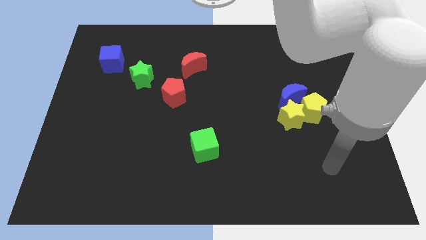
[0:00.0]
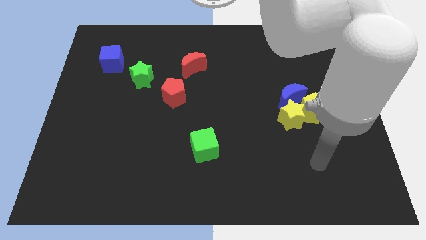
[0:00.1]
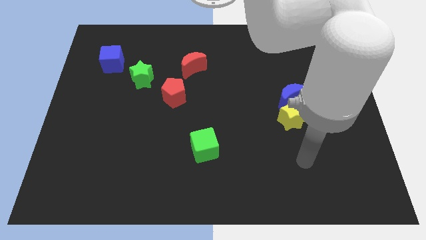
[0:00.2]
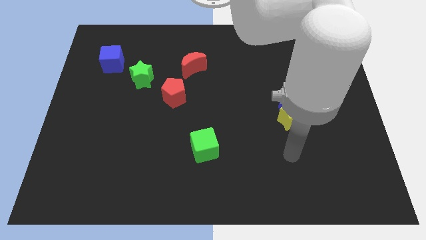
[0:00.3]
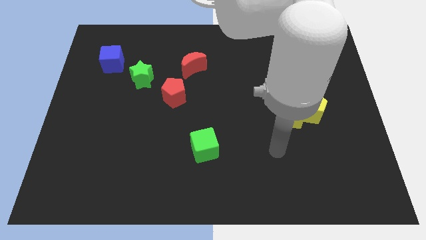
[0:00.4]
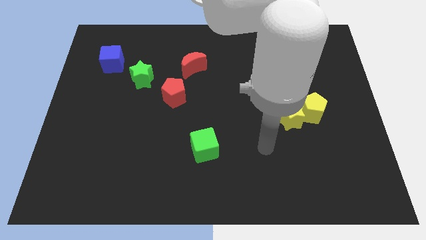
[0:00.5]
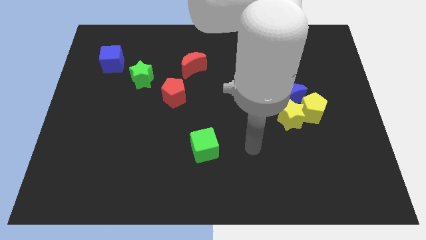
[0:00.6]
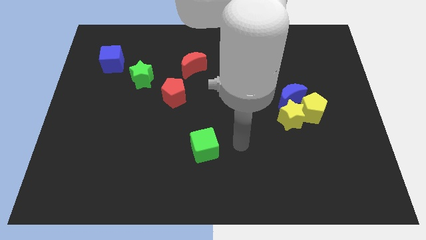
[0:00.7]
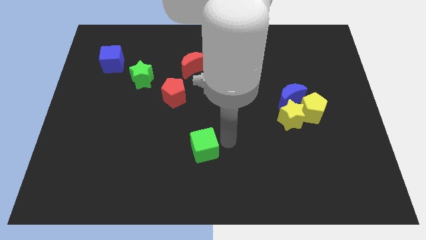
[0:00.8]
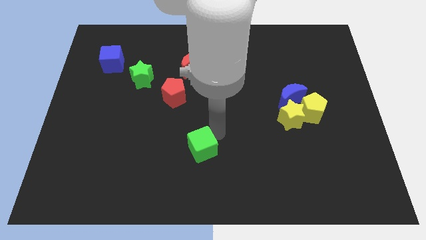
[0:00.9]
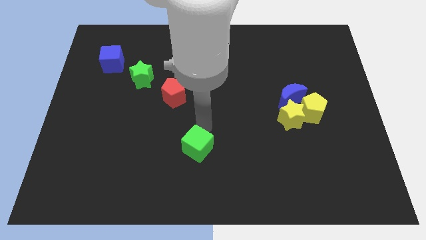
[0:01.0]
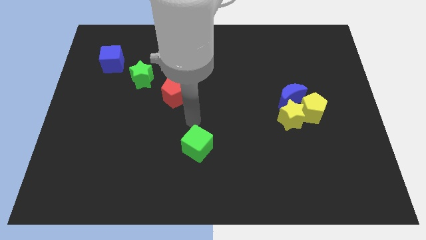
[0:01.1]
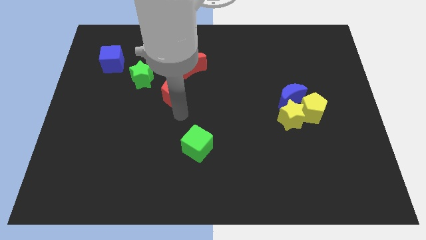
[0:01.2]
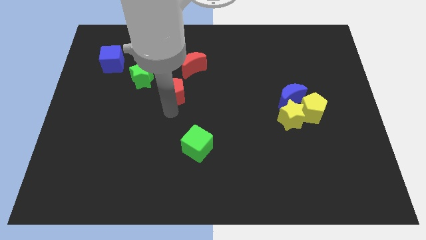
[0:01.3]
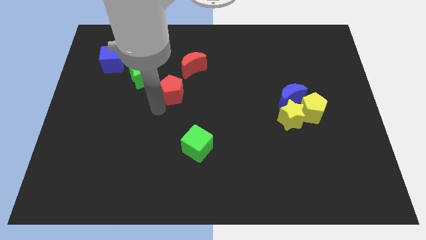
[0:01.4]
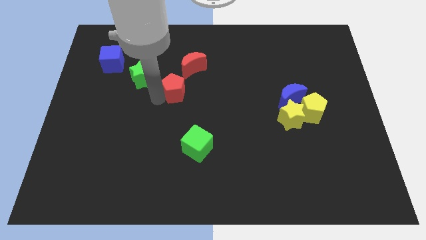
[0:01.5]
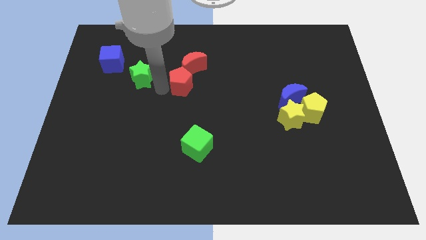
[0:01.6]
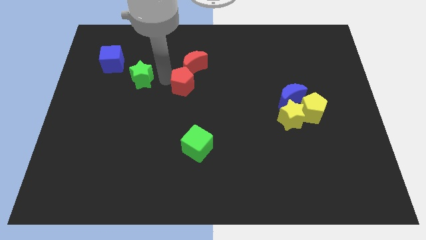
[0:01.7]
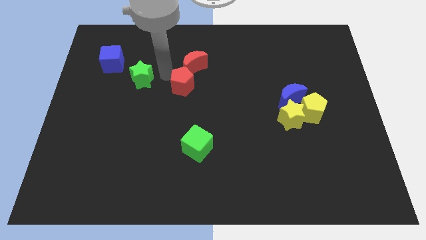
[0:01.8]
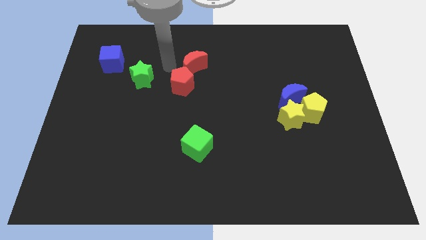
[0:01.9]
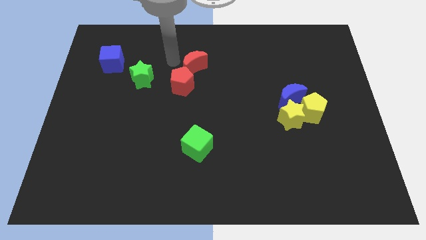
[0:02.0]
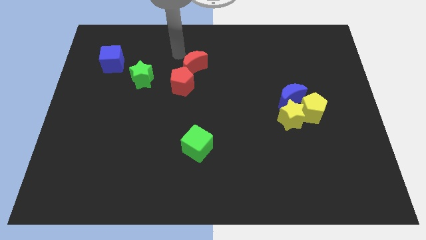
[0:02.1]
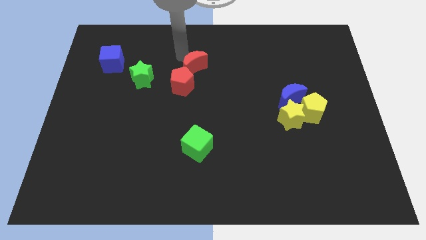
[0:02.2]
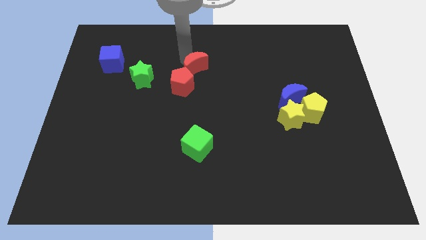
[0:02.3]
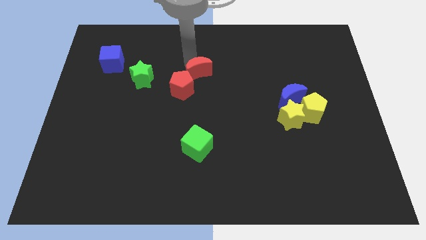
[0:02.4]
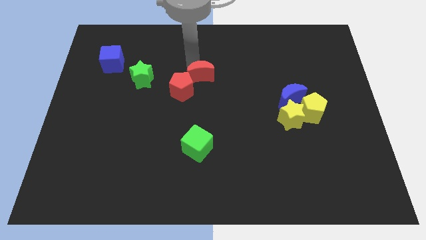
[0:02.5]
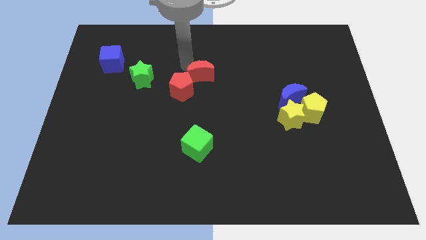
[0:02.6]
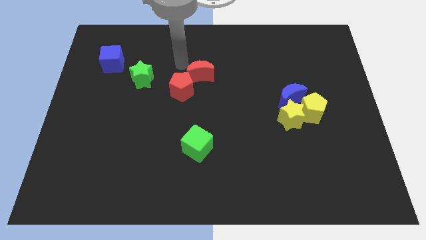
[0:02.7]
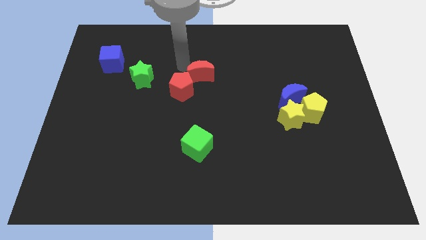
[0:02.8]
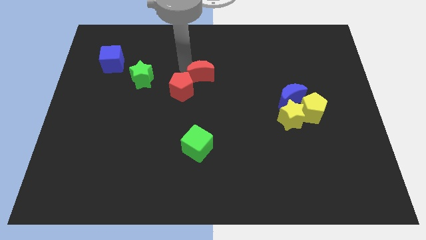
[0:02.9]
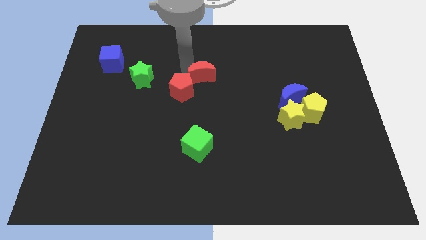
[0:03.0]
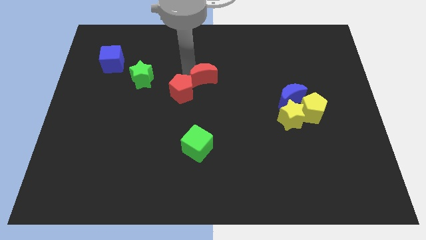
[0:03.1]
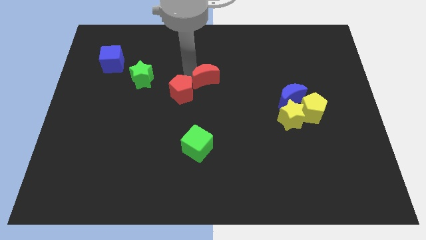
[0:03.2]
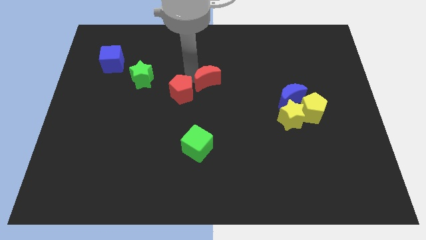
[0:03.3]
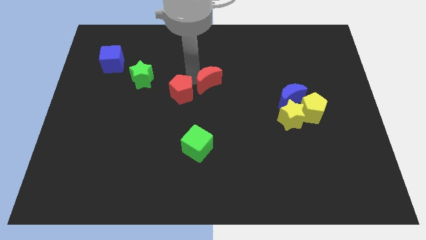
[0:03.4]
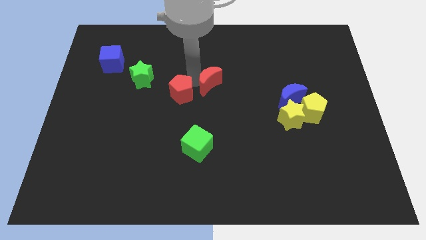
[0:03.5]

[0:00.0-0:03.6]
push the red moon slightly downwards and right diagonally

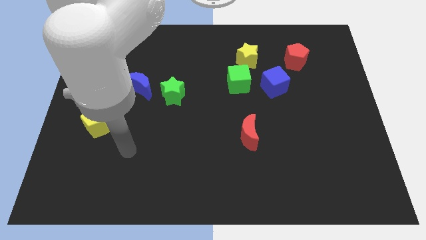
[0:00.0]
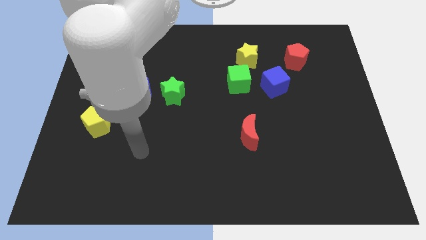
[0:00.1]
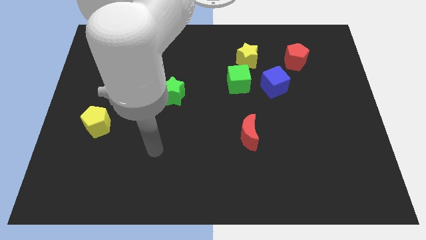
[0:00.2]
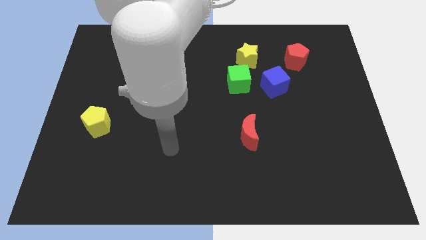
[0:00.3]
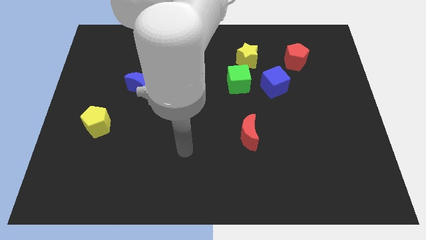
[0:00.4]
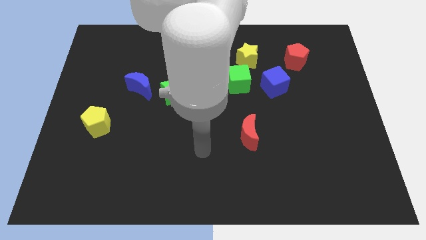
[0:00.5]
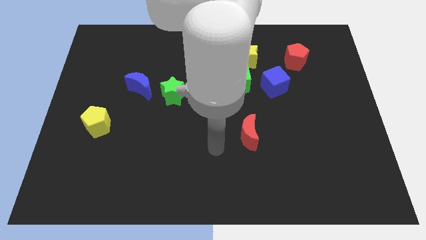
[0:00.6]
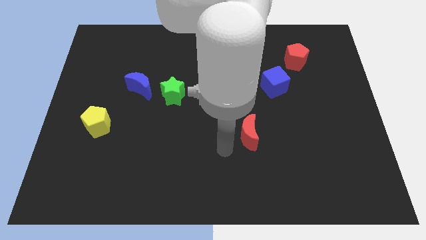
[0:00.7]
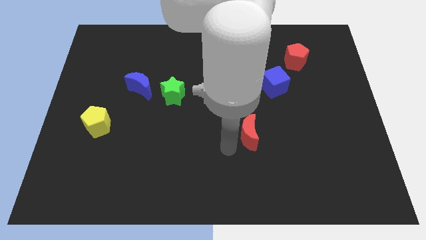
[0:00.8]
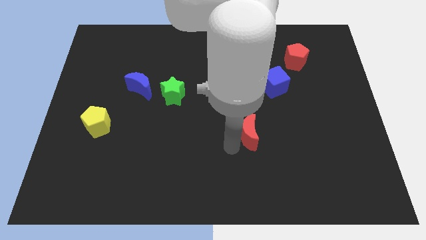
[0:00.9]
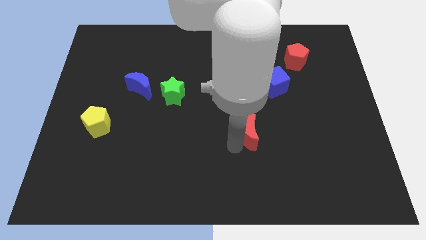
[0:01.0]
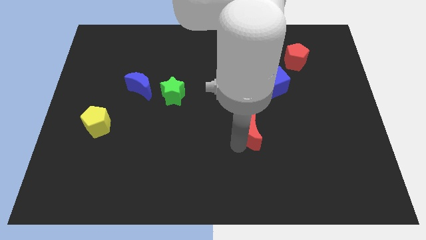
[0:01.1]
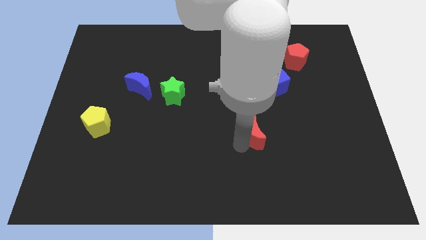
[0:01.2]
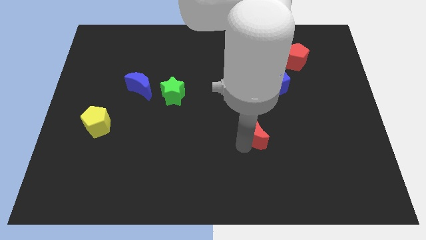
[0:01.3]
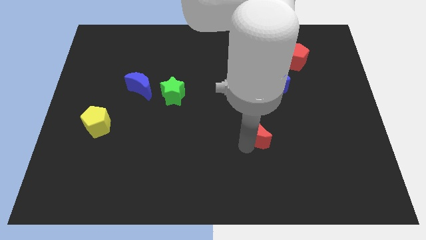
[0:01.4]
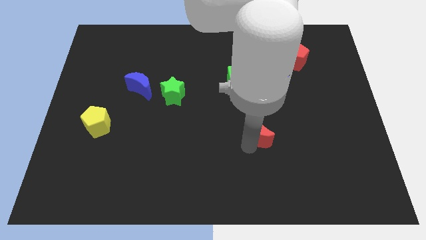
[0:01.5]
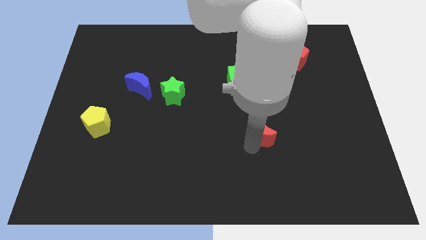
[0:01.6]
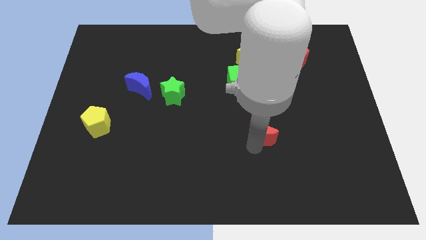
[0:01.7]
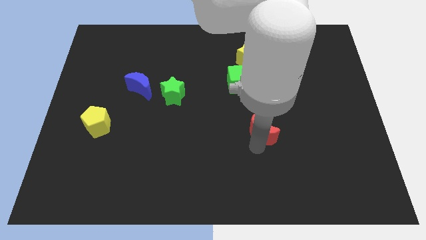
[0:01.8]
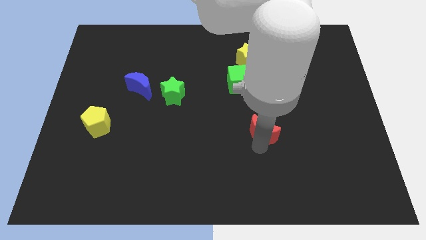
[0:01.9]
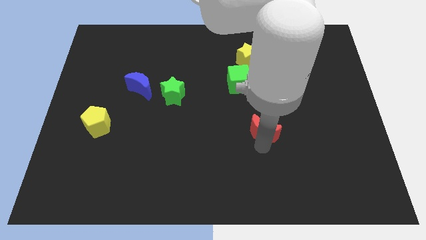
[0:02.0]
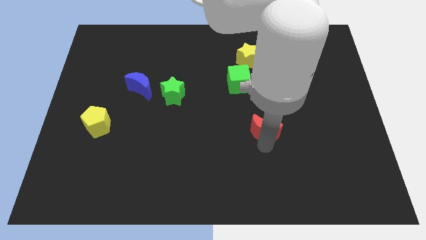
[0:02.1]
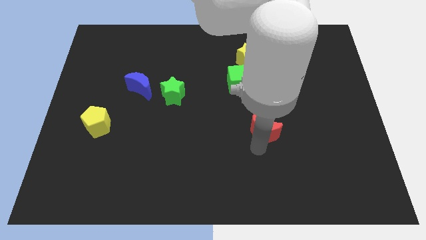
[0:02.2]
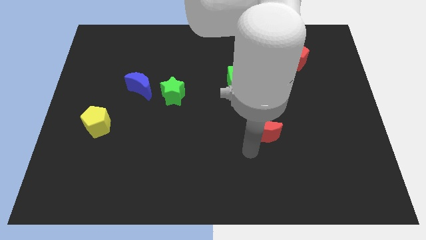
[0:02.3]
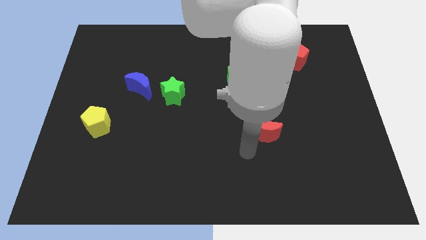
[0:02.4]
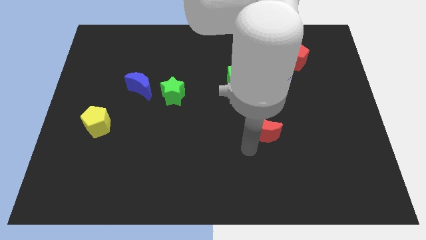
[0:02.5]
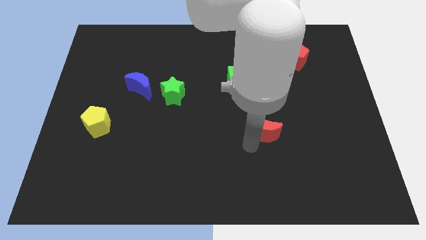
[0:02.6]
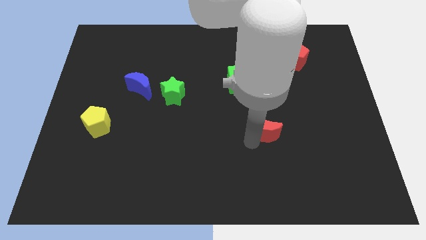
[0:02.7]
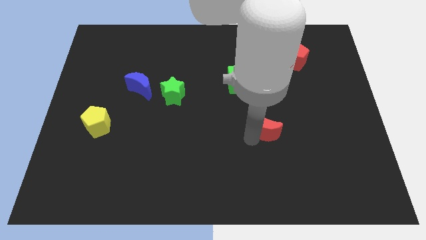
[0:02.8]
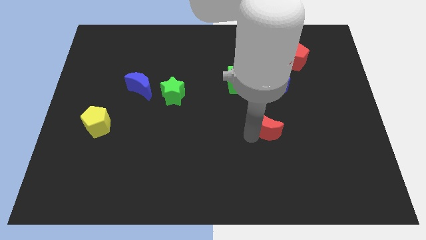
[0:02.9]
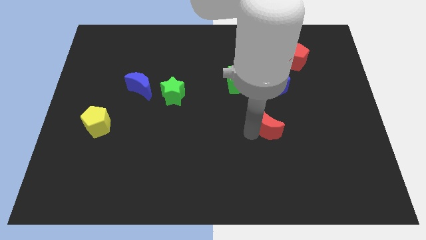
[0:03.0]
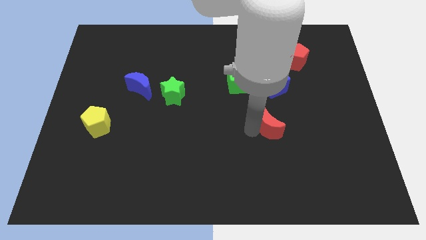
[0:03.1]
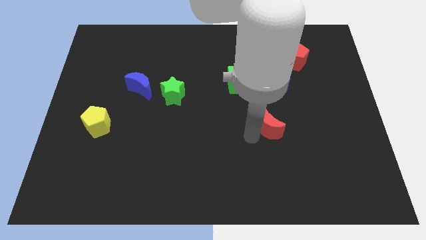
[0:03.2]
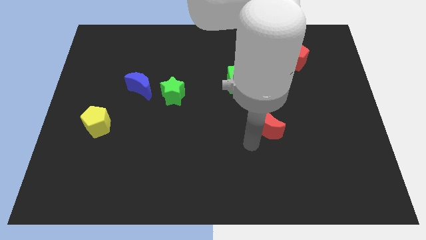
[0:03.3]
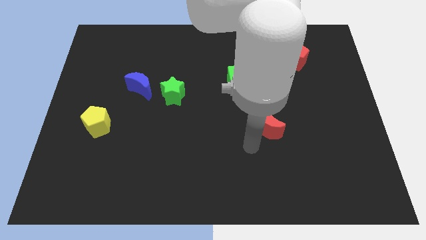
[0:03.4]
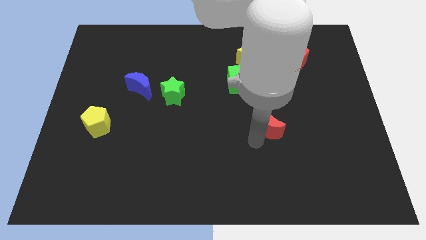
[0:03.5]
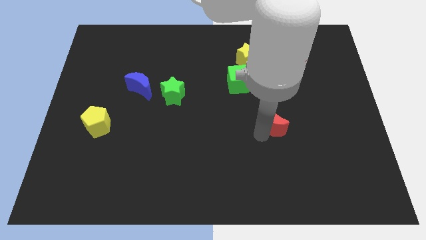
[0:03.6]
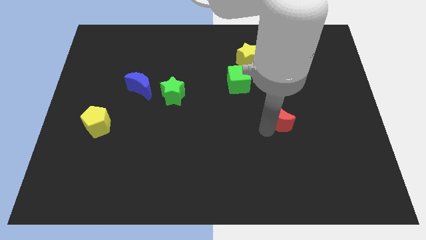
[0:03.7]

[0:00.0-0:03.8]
slightly move the red moon upwards and to the right diagonally
